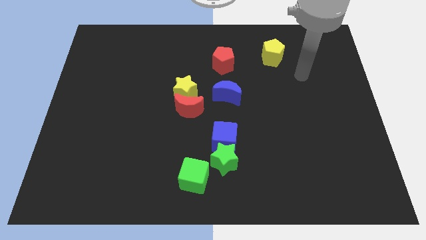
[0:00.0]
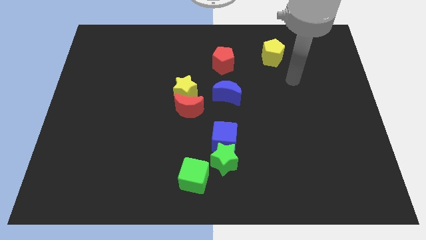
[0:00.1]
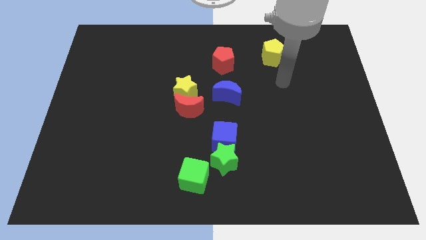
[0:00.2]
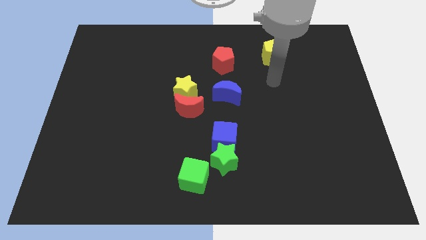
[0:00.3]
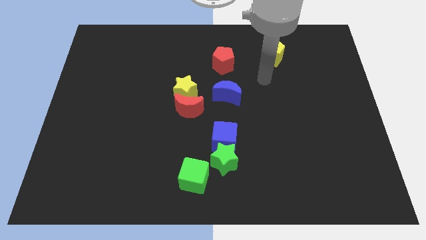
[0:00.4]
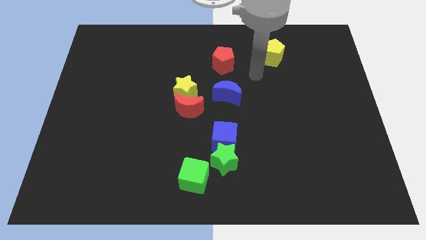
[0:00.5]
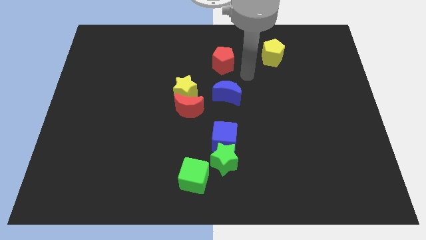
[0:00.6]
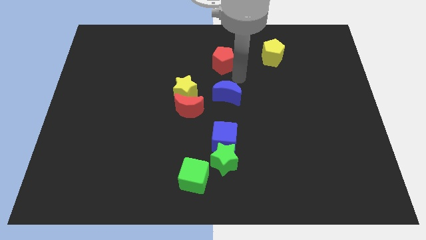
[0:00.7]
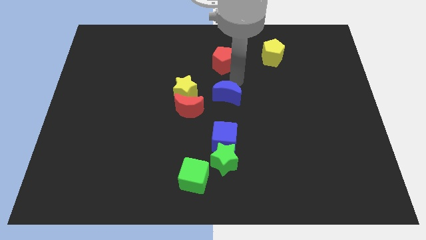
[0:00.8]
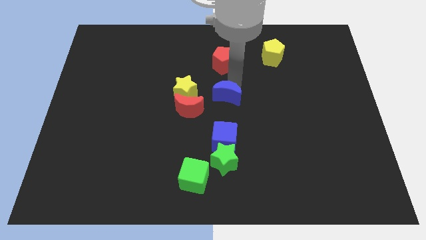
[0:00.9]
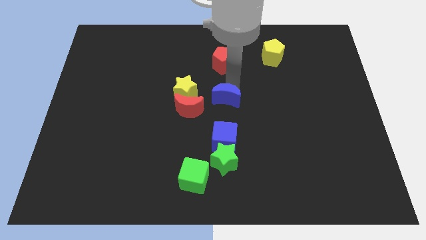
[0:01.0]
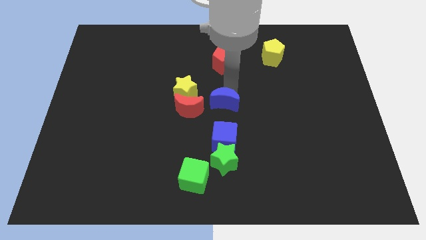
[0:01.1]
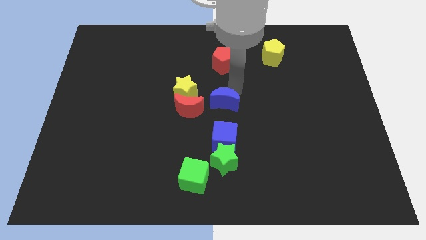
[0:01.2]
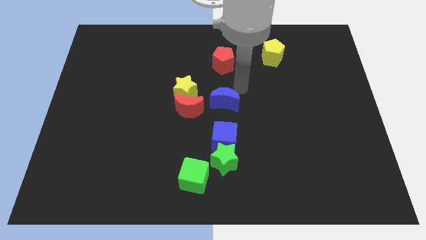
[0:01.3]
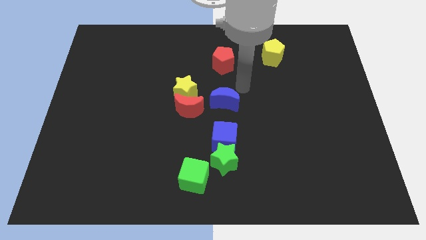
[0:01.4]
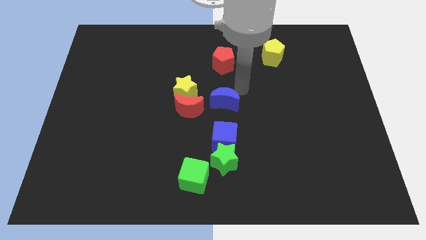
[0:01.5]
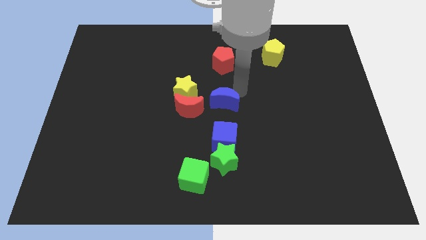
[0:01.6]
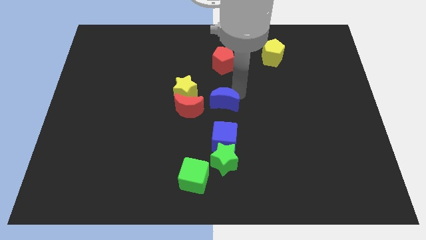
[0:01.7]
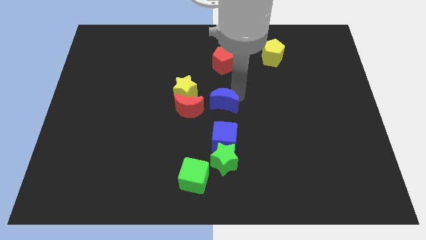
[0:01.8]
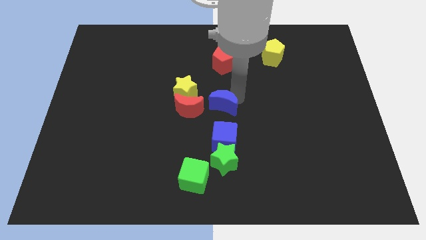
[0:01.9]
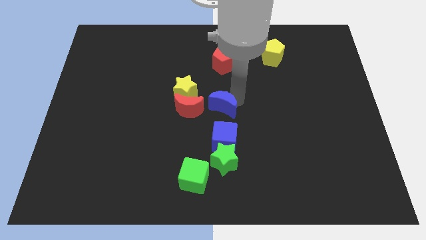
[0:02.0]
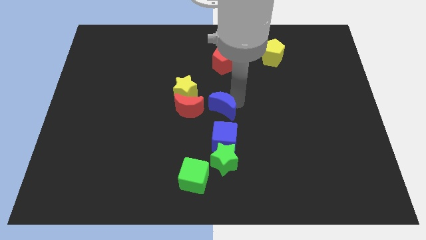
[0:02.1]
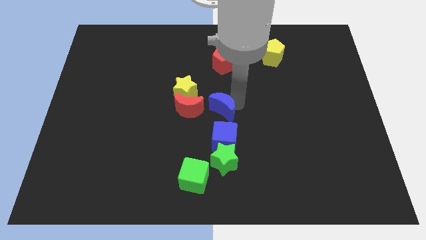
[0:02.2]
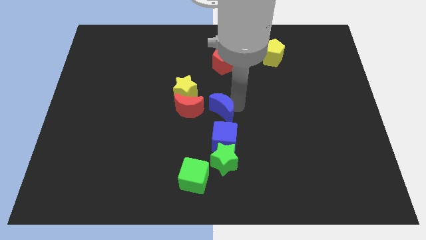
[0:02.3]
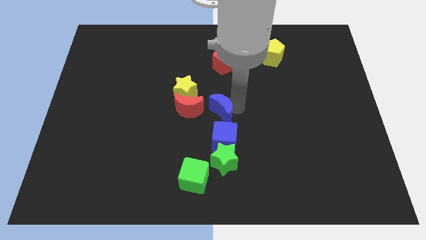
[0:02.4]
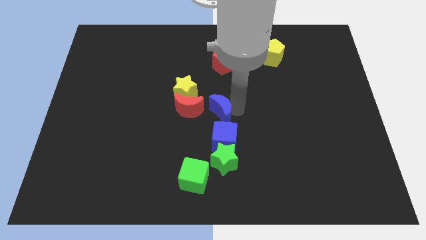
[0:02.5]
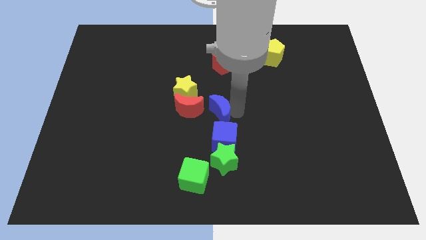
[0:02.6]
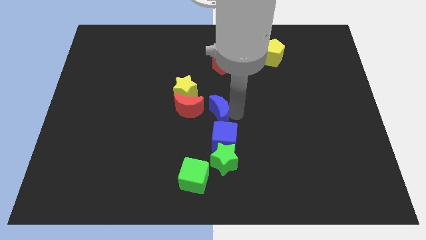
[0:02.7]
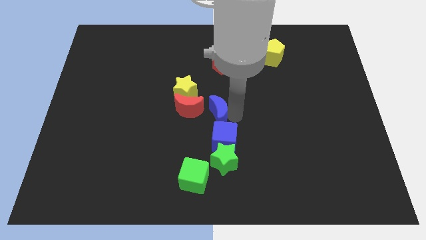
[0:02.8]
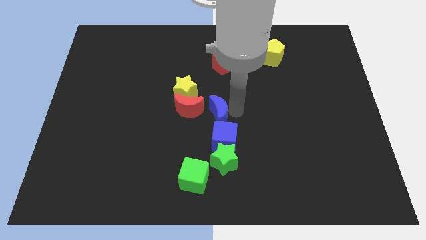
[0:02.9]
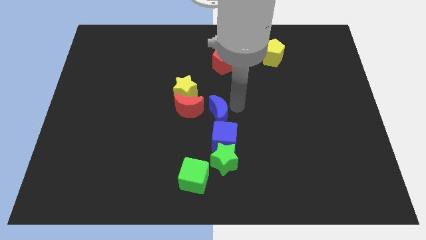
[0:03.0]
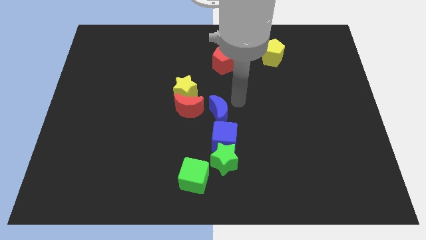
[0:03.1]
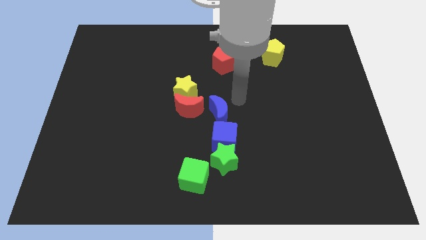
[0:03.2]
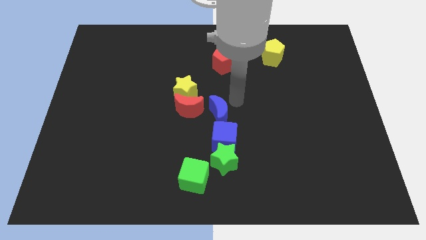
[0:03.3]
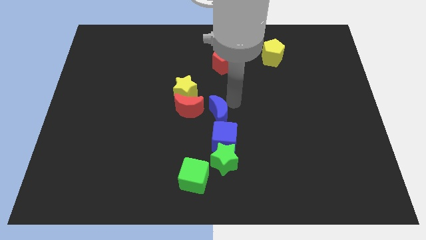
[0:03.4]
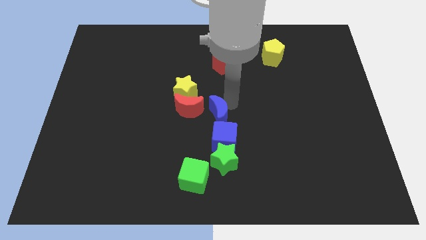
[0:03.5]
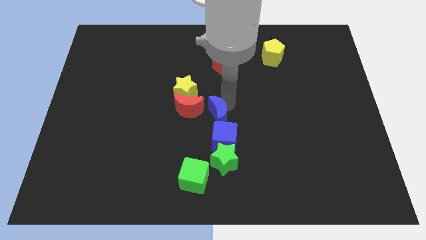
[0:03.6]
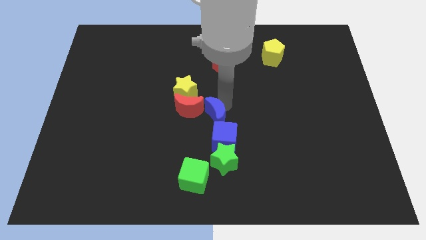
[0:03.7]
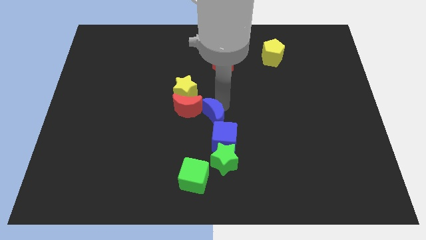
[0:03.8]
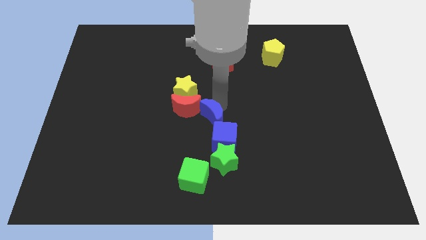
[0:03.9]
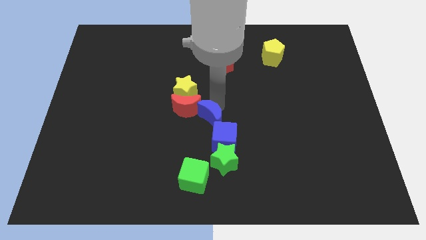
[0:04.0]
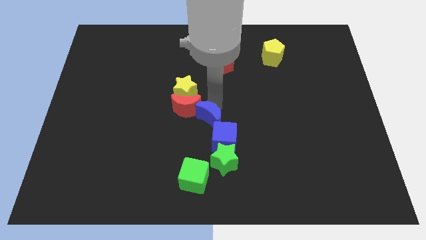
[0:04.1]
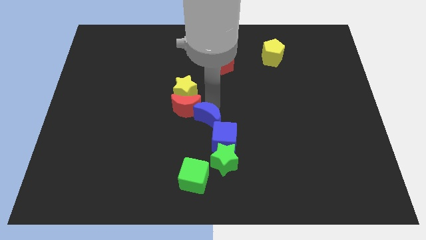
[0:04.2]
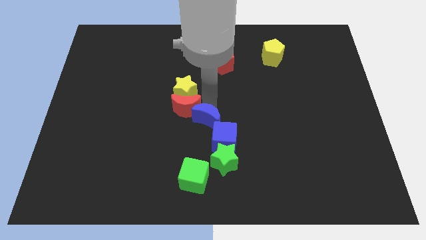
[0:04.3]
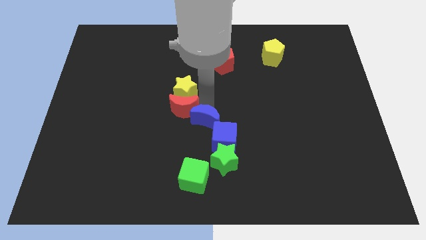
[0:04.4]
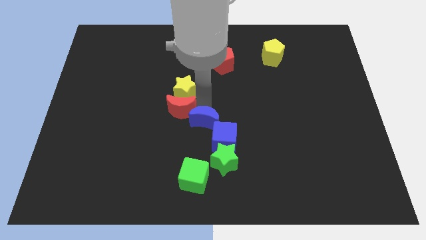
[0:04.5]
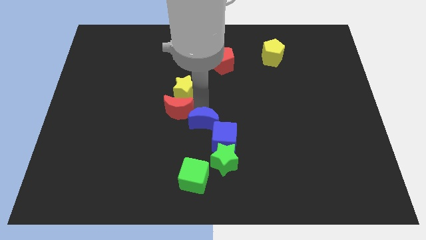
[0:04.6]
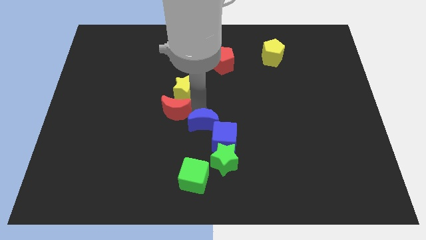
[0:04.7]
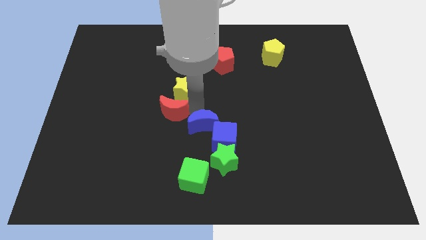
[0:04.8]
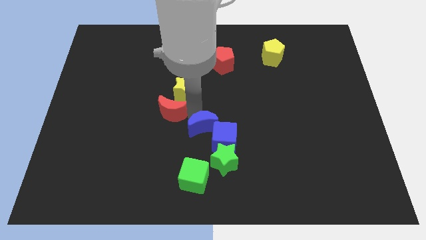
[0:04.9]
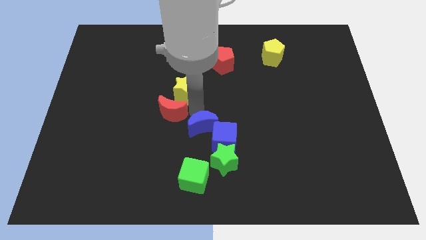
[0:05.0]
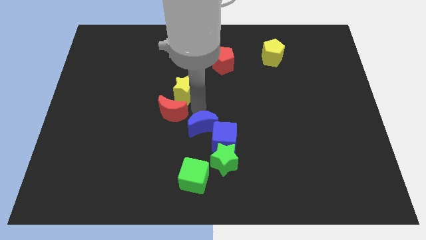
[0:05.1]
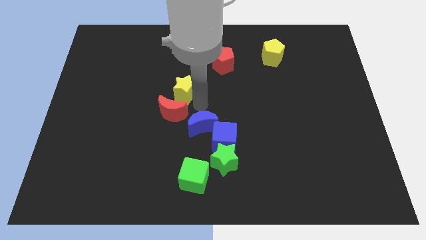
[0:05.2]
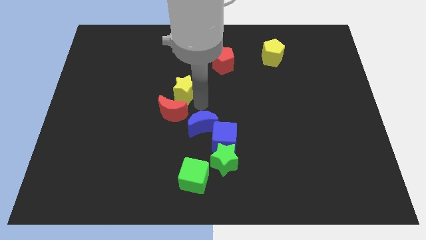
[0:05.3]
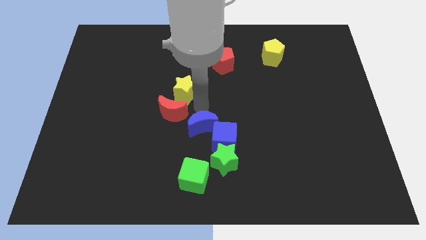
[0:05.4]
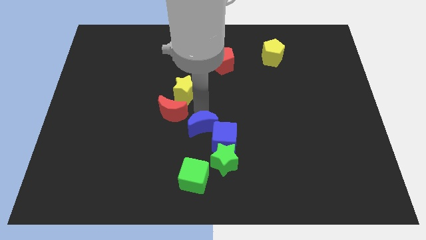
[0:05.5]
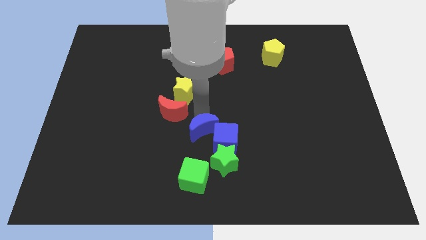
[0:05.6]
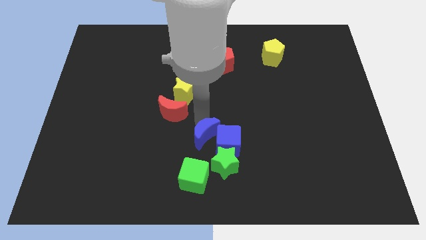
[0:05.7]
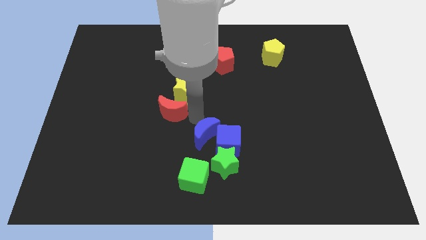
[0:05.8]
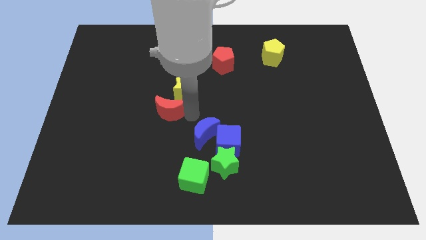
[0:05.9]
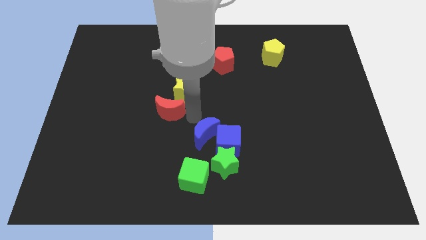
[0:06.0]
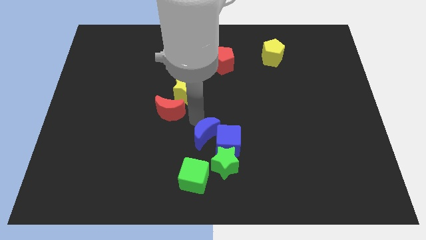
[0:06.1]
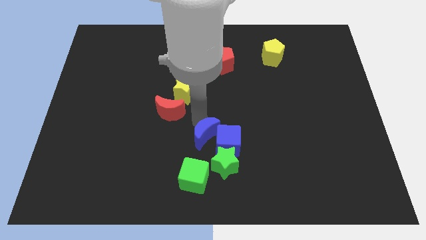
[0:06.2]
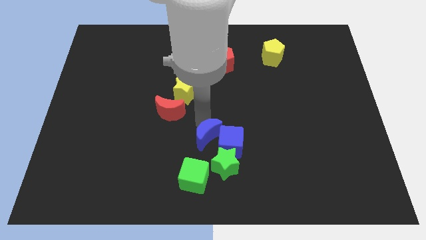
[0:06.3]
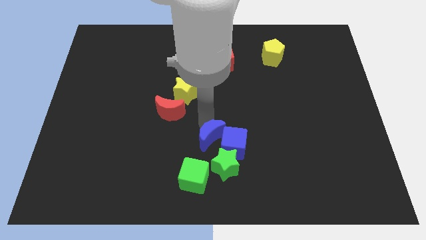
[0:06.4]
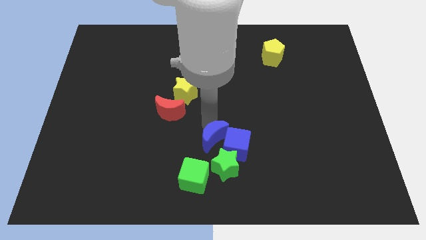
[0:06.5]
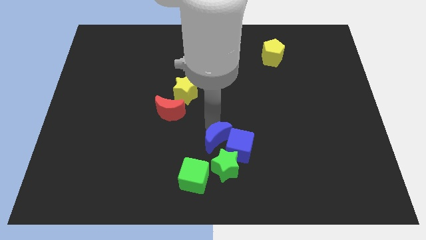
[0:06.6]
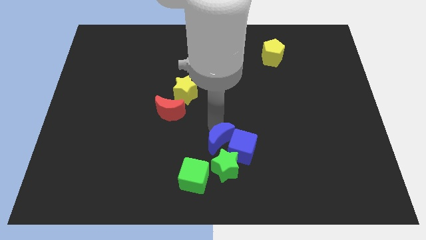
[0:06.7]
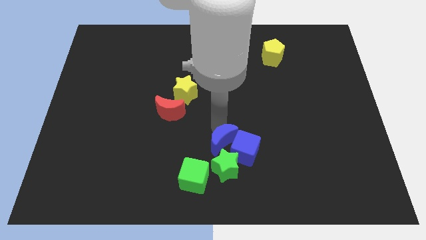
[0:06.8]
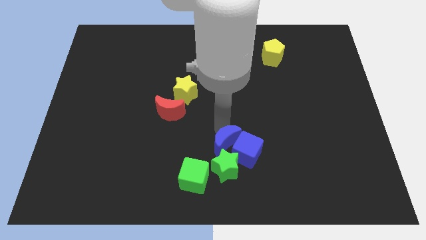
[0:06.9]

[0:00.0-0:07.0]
move the blue moon towards the green star

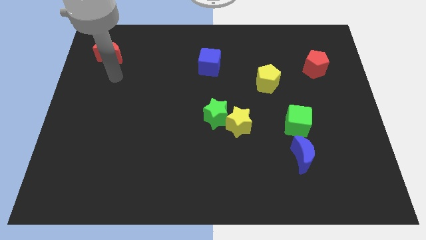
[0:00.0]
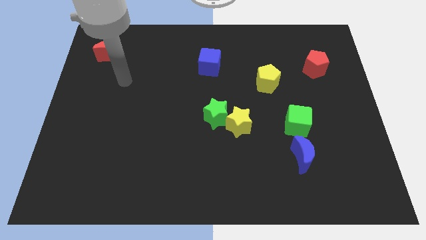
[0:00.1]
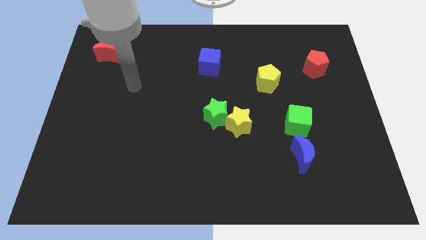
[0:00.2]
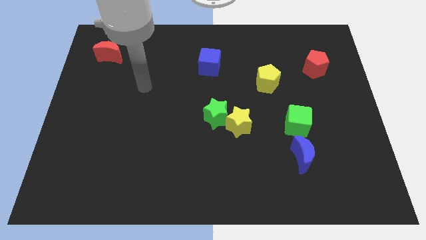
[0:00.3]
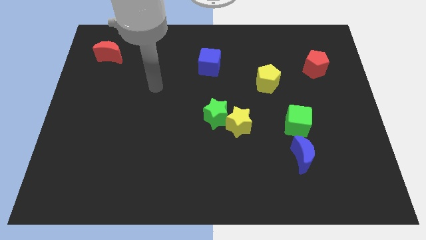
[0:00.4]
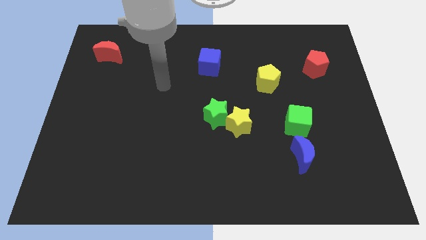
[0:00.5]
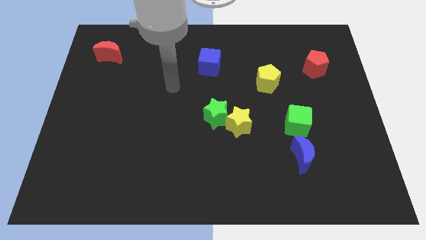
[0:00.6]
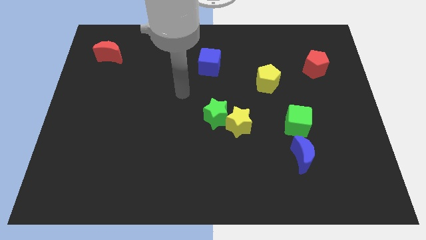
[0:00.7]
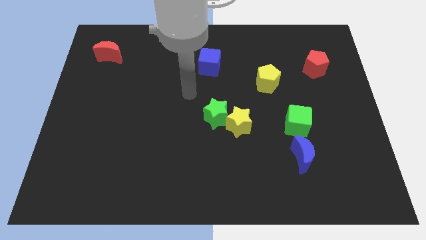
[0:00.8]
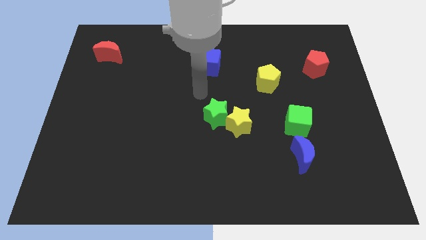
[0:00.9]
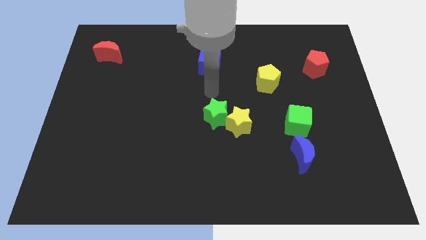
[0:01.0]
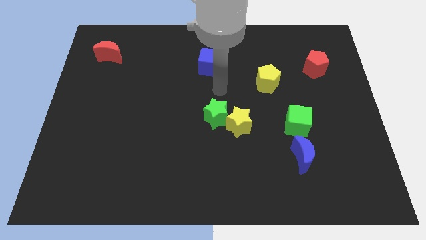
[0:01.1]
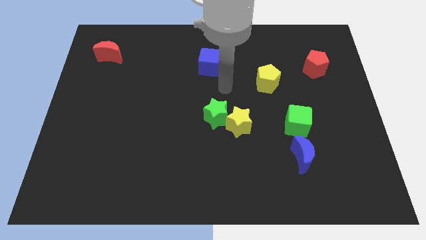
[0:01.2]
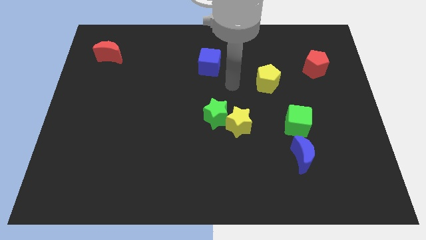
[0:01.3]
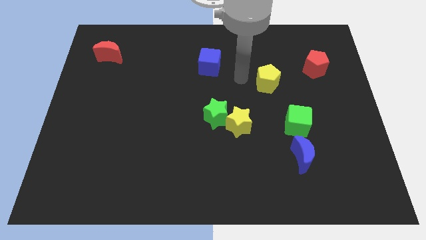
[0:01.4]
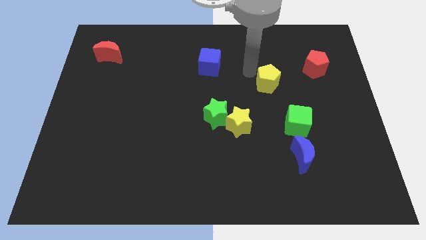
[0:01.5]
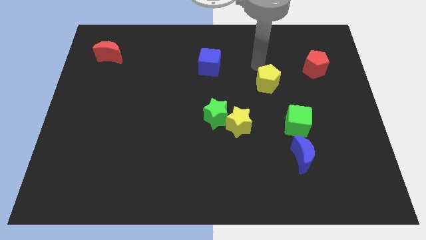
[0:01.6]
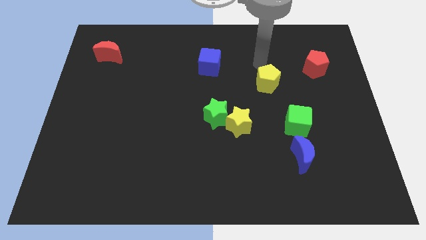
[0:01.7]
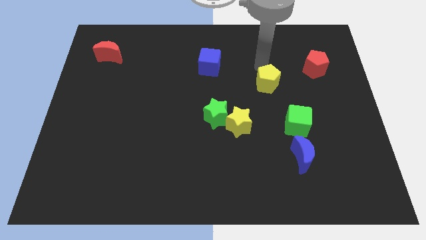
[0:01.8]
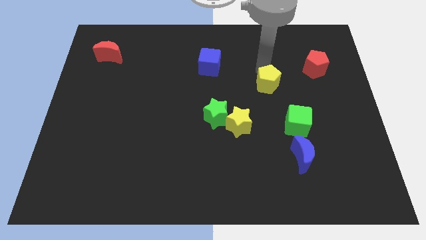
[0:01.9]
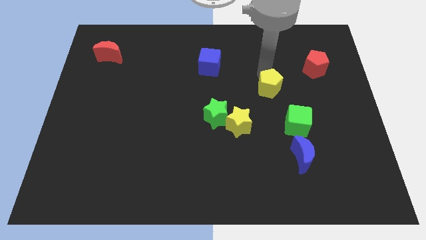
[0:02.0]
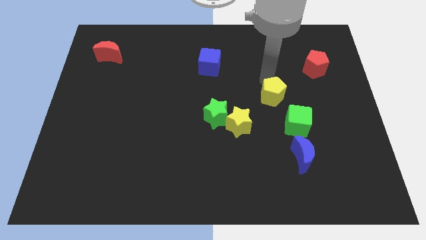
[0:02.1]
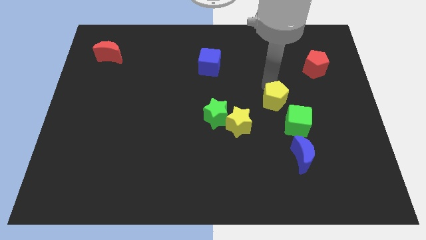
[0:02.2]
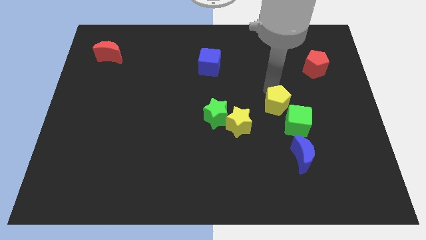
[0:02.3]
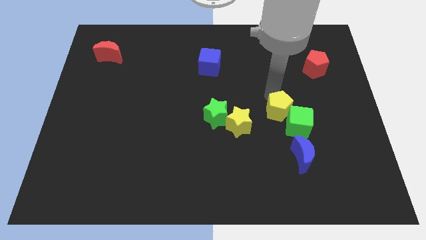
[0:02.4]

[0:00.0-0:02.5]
slide the yellow pentagon to the green cube
